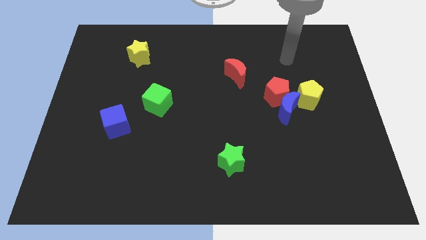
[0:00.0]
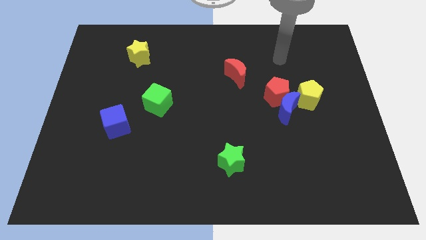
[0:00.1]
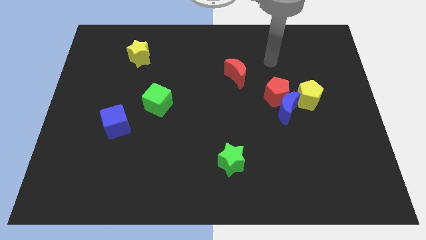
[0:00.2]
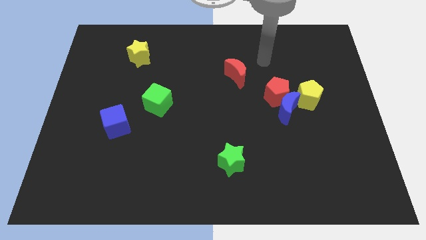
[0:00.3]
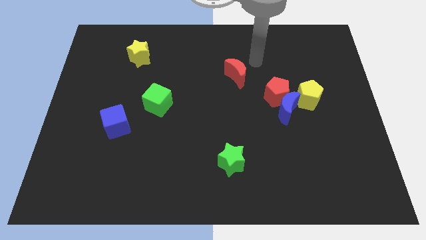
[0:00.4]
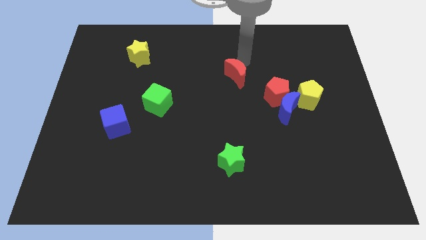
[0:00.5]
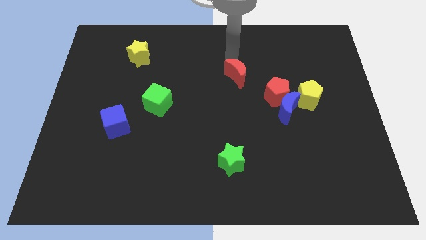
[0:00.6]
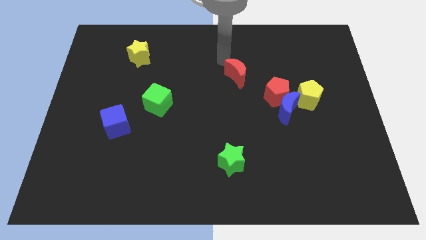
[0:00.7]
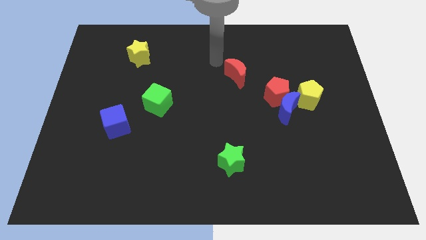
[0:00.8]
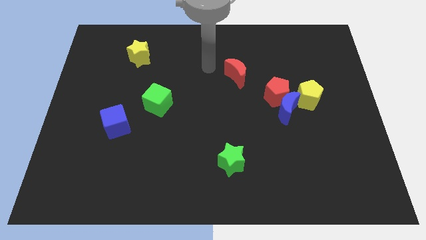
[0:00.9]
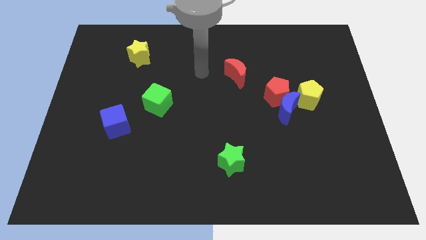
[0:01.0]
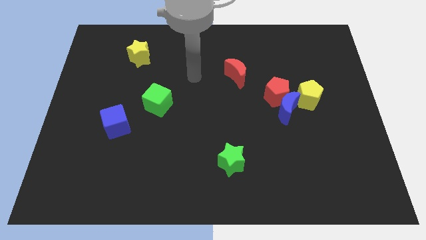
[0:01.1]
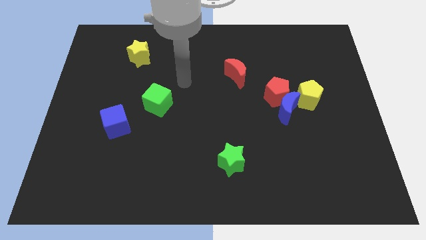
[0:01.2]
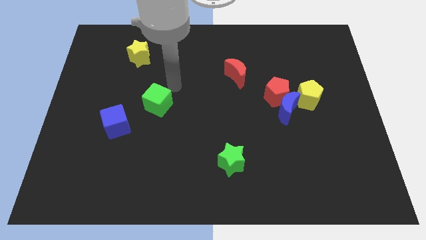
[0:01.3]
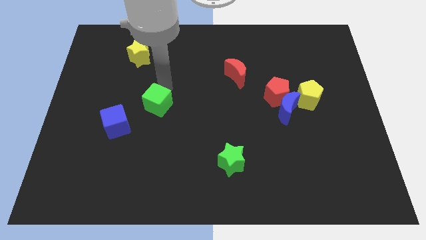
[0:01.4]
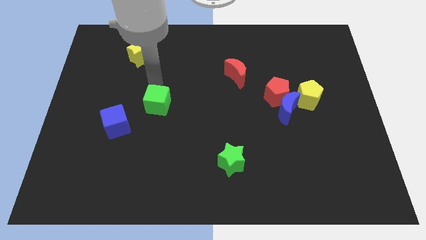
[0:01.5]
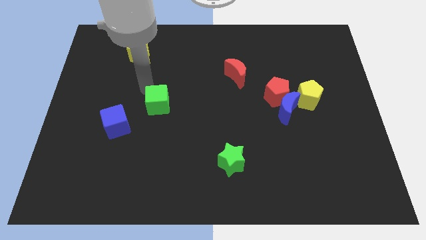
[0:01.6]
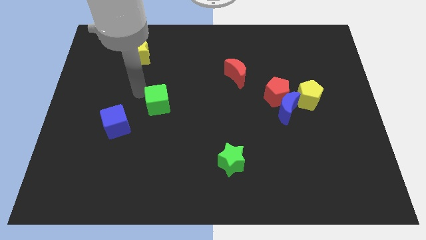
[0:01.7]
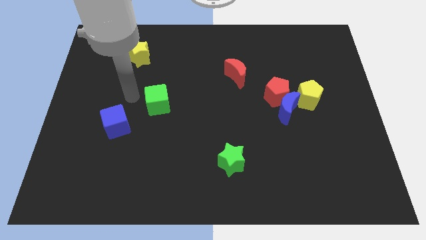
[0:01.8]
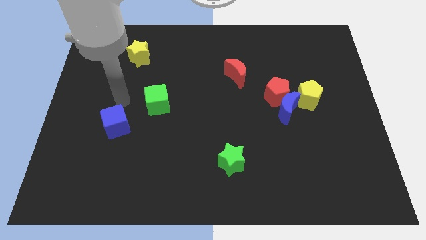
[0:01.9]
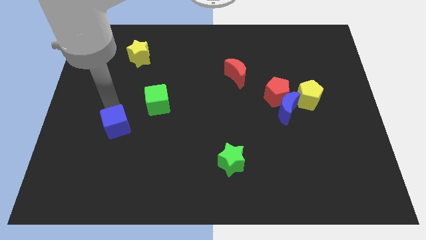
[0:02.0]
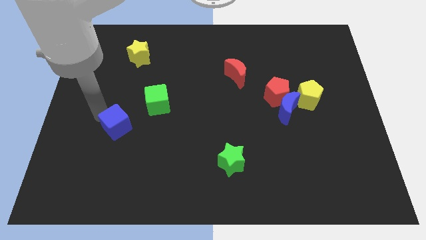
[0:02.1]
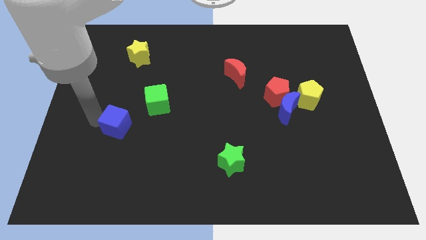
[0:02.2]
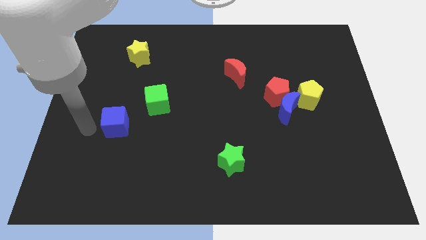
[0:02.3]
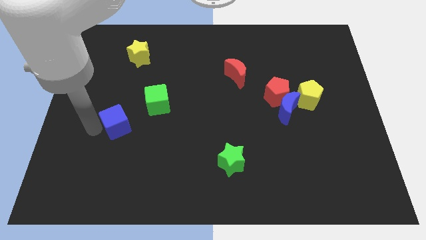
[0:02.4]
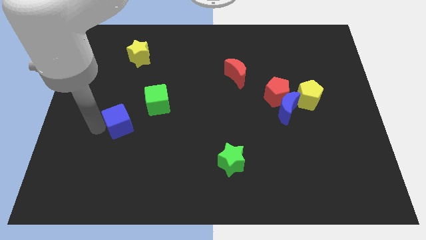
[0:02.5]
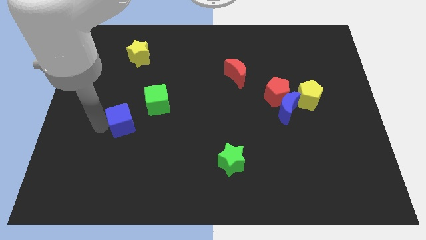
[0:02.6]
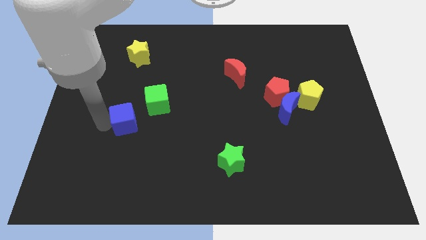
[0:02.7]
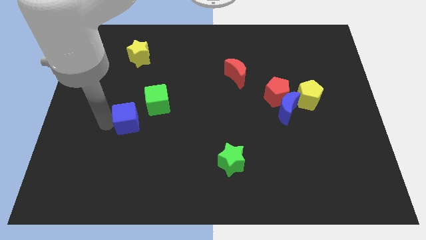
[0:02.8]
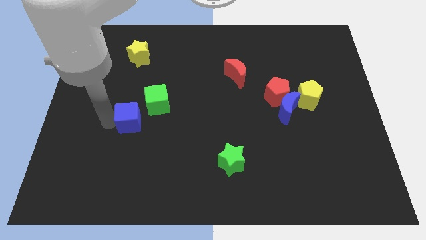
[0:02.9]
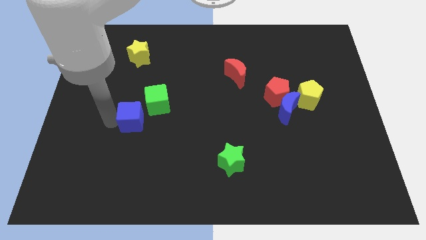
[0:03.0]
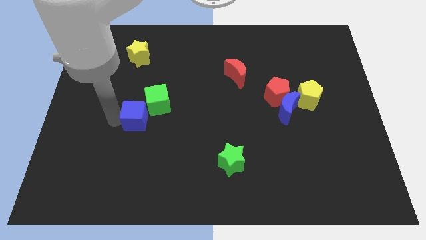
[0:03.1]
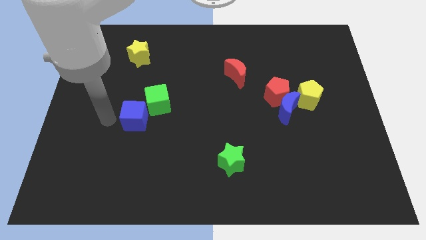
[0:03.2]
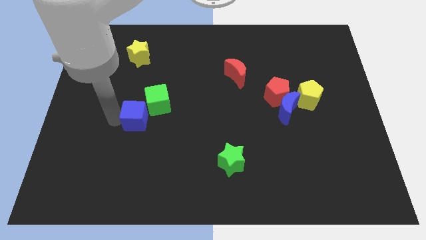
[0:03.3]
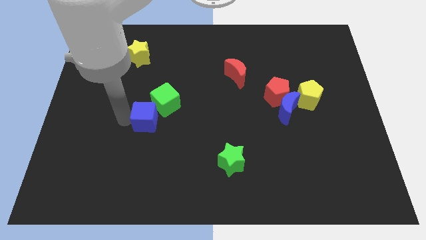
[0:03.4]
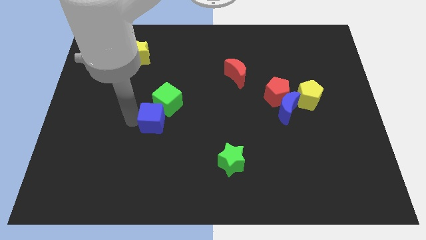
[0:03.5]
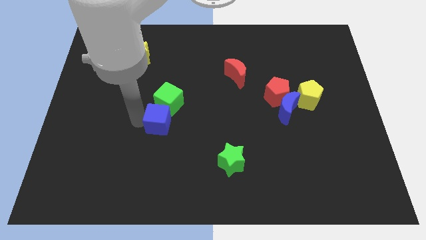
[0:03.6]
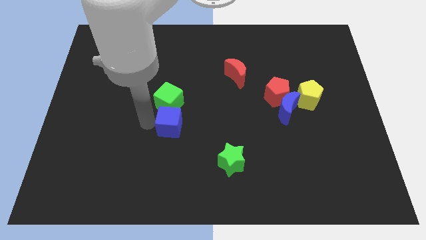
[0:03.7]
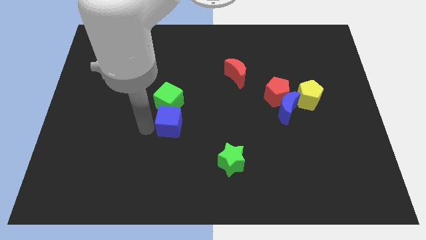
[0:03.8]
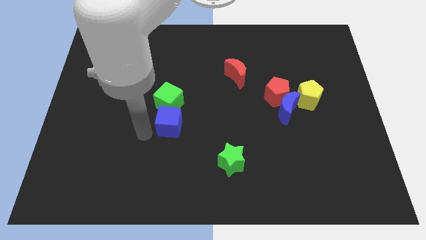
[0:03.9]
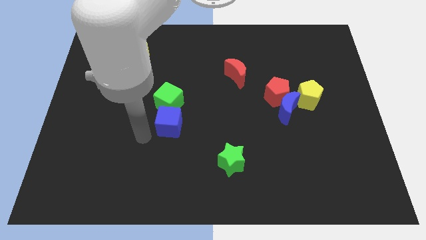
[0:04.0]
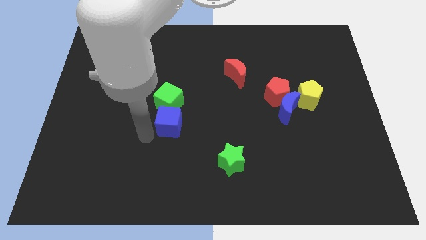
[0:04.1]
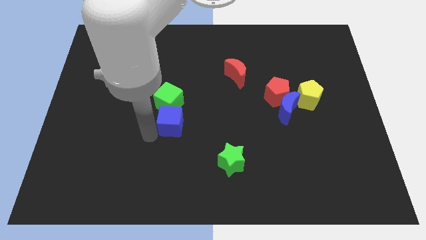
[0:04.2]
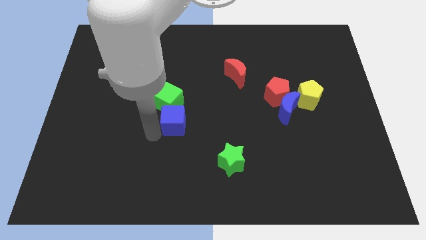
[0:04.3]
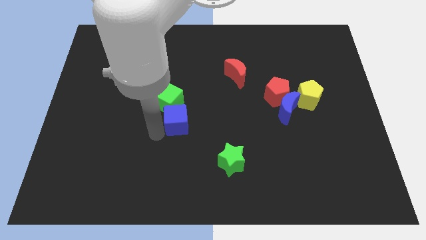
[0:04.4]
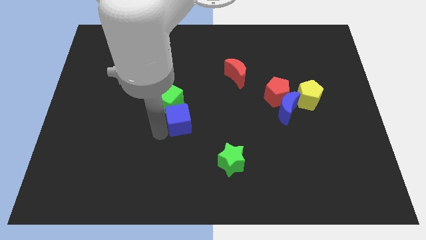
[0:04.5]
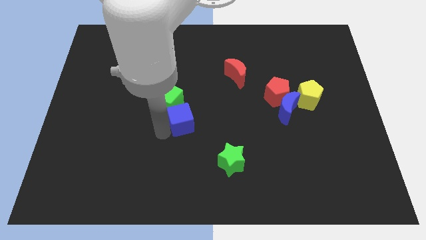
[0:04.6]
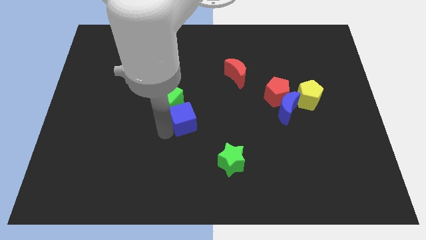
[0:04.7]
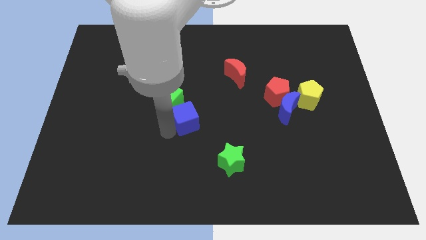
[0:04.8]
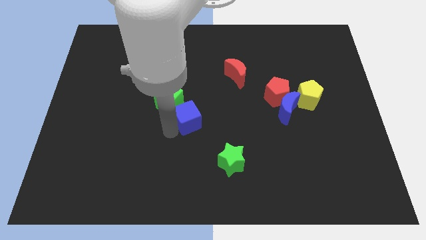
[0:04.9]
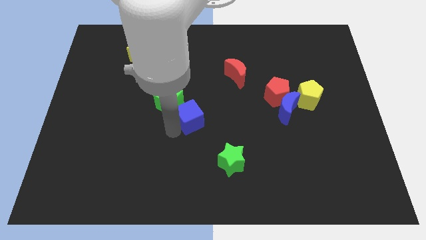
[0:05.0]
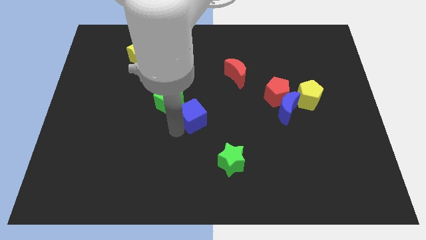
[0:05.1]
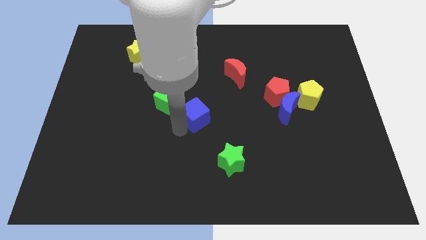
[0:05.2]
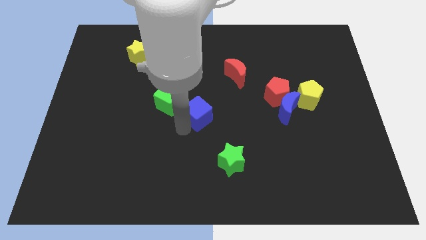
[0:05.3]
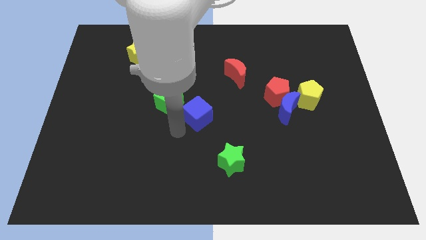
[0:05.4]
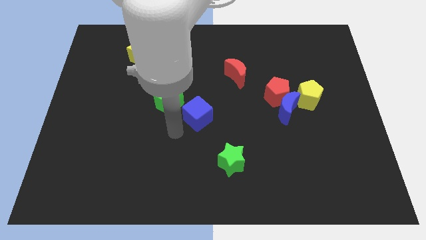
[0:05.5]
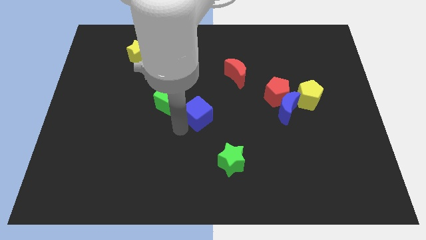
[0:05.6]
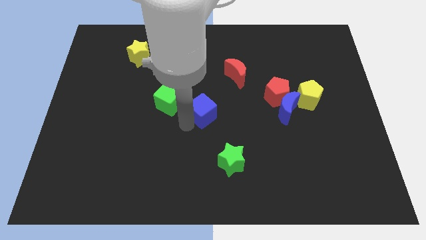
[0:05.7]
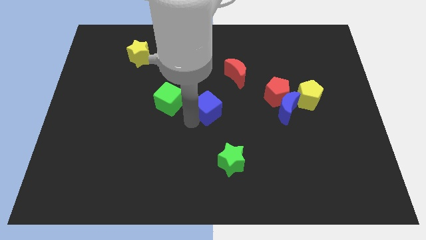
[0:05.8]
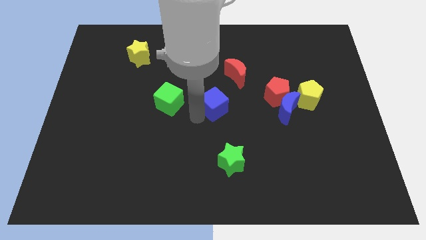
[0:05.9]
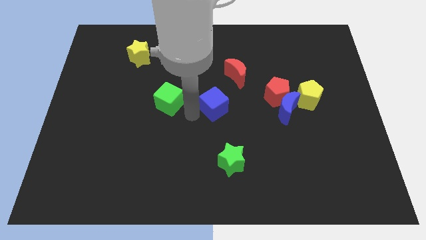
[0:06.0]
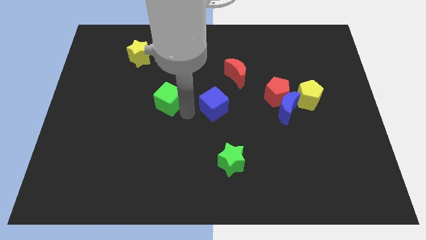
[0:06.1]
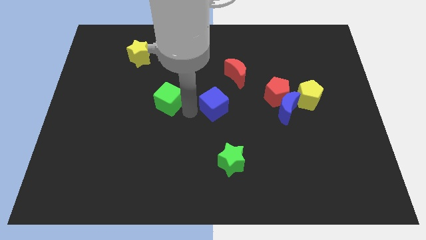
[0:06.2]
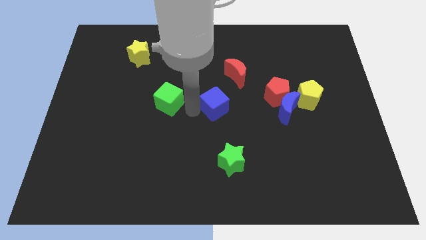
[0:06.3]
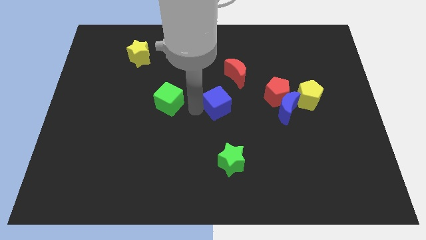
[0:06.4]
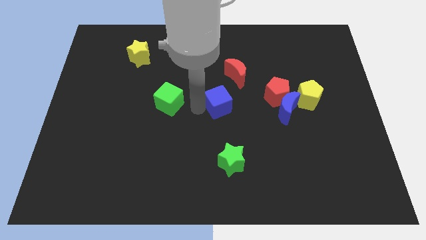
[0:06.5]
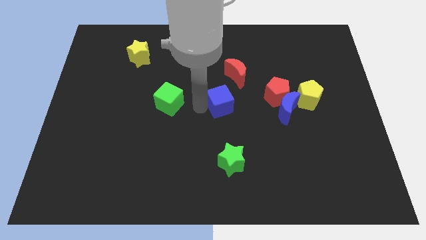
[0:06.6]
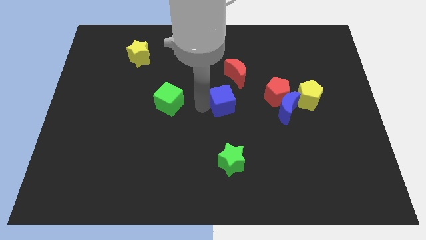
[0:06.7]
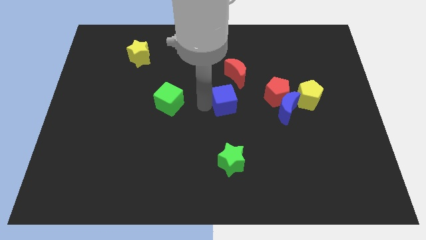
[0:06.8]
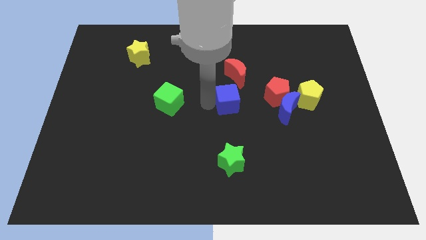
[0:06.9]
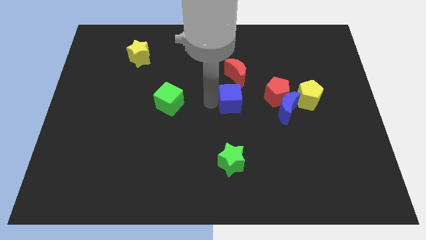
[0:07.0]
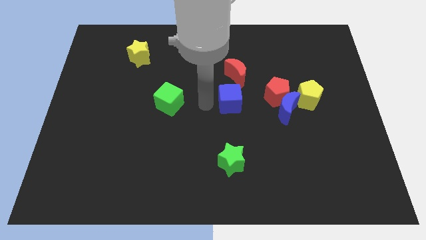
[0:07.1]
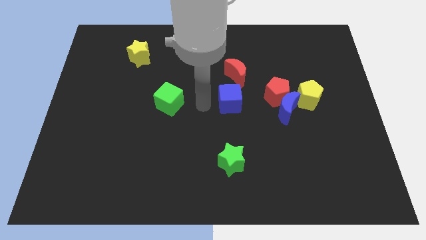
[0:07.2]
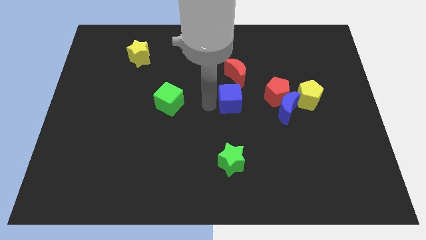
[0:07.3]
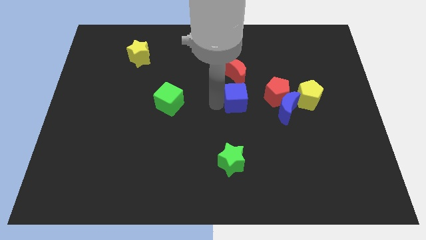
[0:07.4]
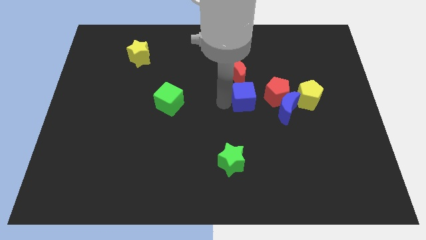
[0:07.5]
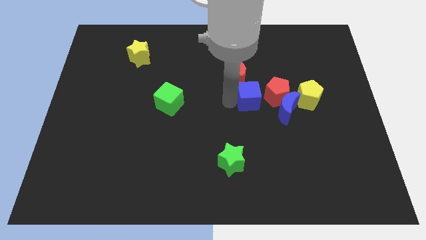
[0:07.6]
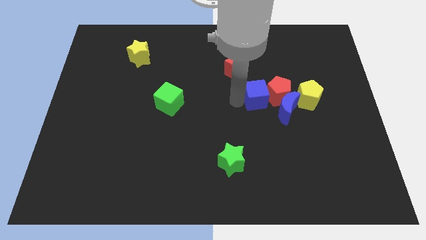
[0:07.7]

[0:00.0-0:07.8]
push the blue cube next to the red pentagon
